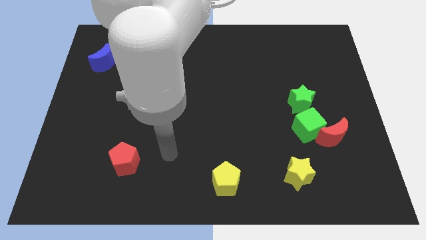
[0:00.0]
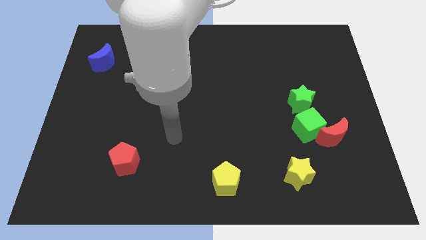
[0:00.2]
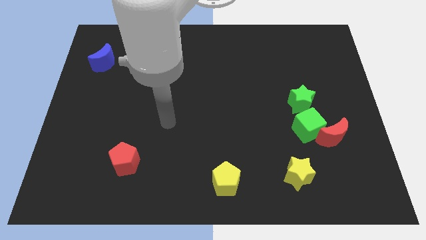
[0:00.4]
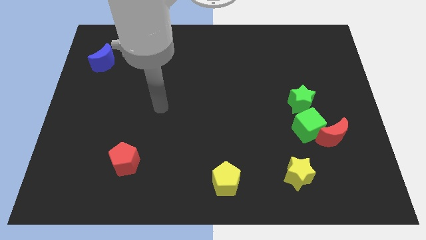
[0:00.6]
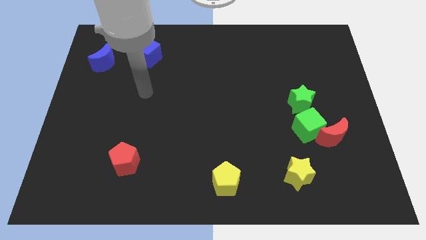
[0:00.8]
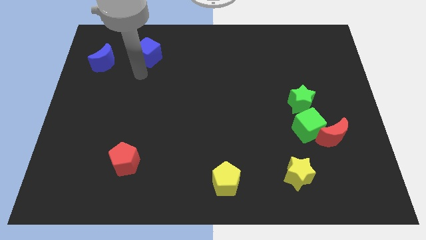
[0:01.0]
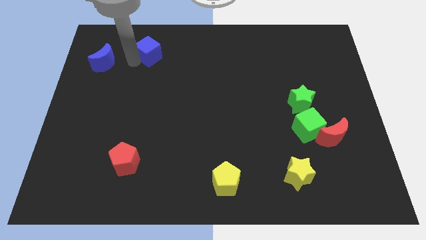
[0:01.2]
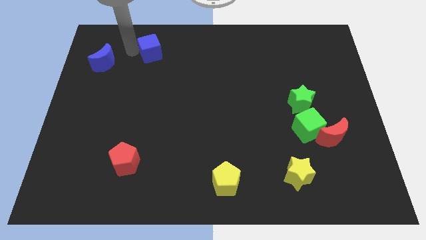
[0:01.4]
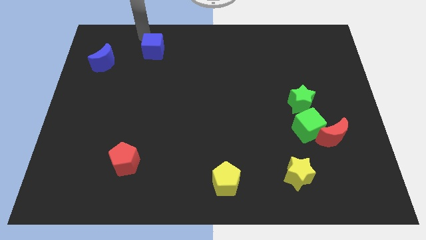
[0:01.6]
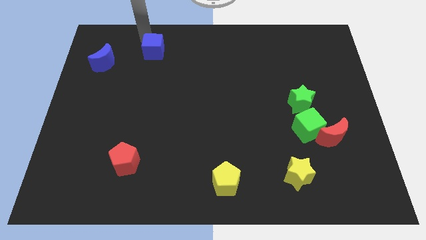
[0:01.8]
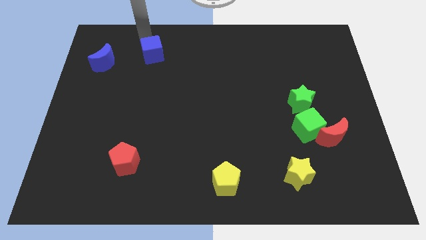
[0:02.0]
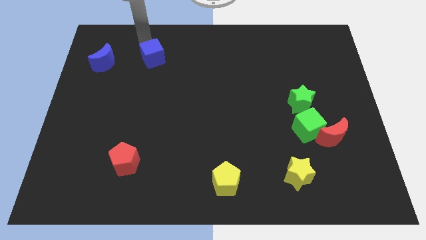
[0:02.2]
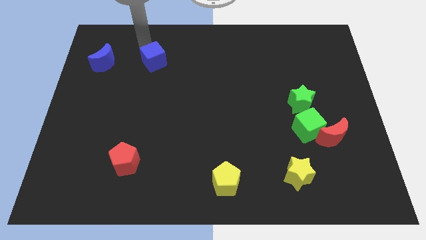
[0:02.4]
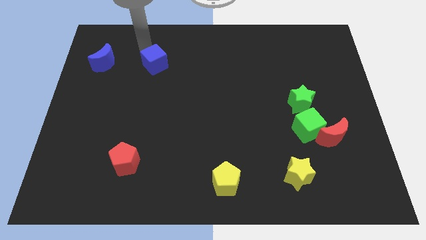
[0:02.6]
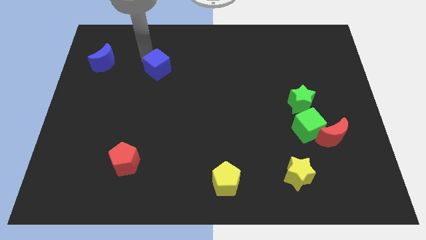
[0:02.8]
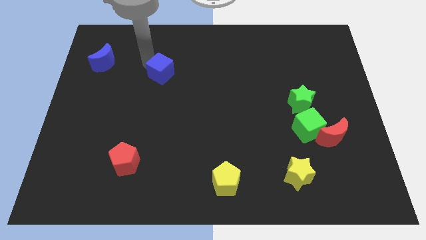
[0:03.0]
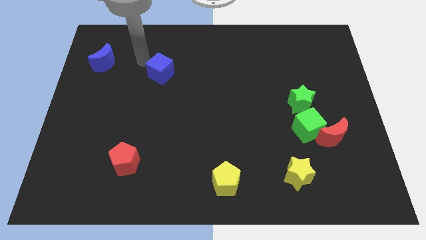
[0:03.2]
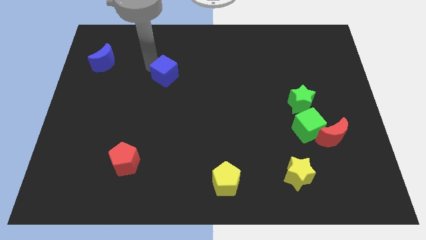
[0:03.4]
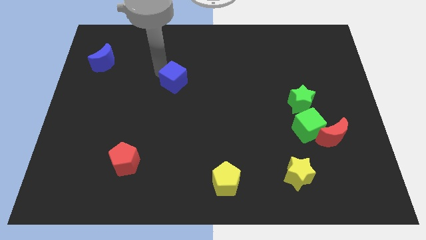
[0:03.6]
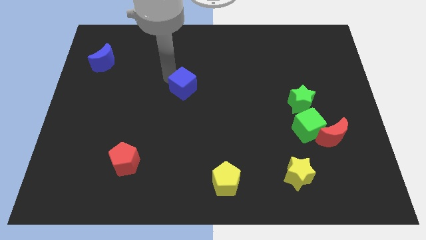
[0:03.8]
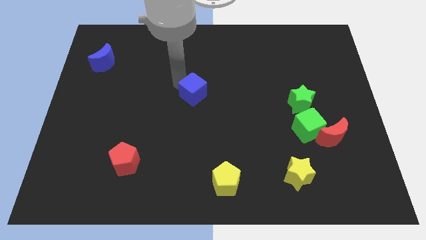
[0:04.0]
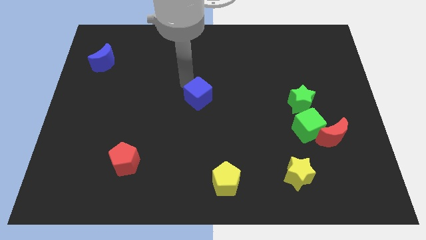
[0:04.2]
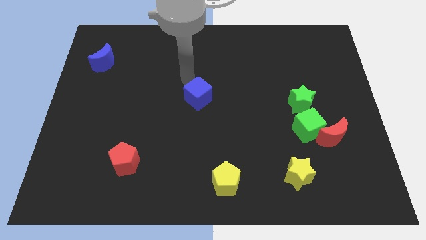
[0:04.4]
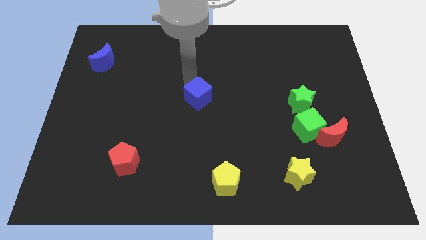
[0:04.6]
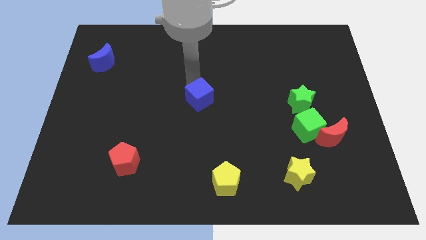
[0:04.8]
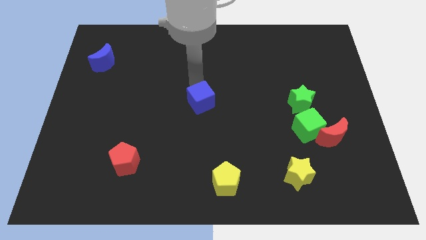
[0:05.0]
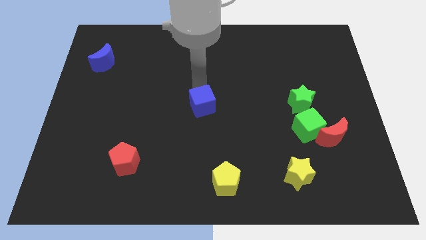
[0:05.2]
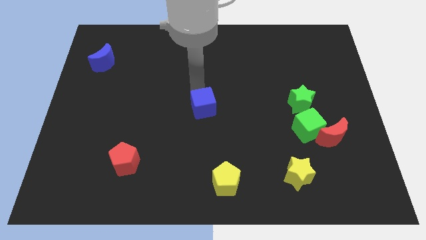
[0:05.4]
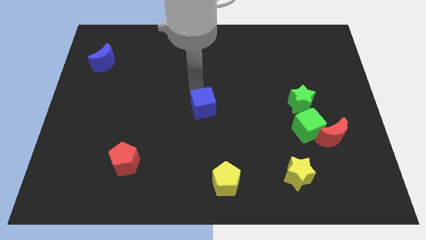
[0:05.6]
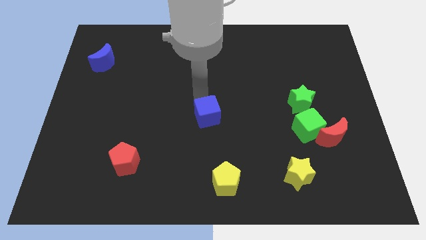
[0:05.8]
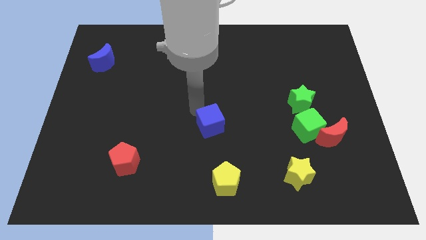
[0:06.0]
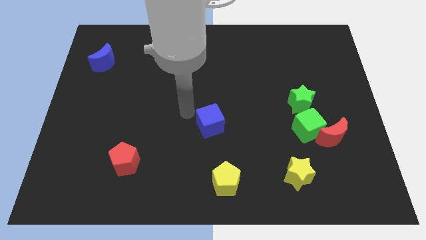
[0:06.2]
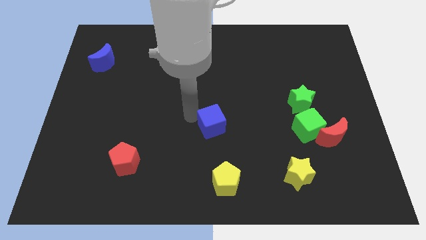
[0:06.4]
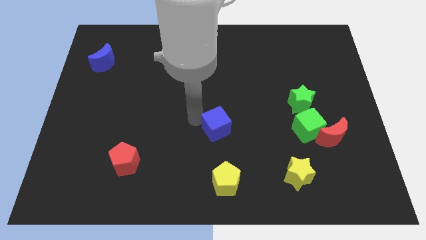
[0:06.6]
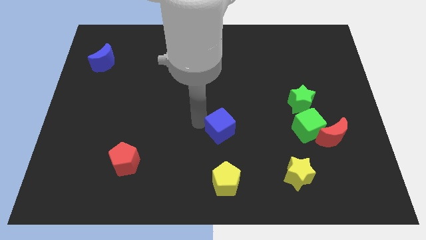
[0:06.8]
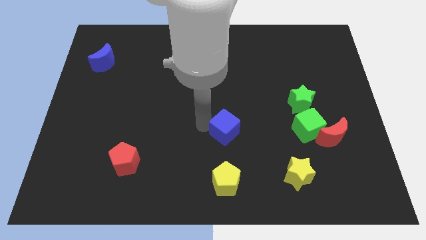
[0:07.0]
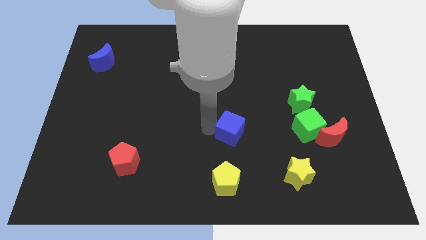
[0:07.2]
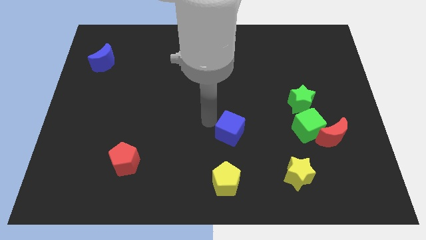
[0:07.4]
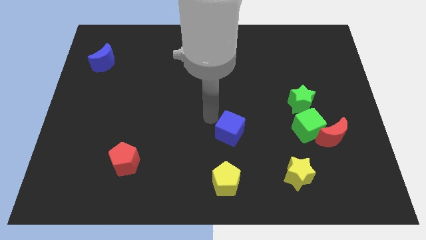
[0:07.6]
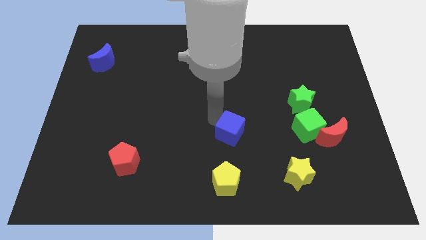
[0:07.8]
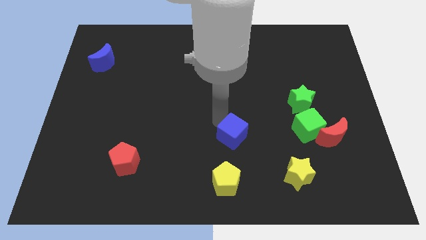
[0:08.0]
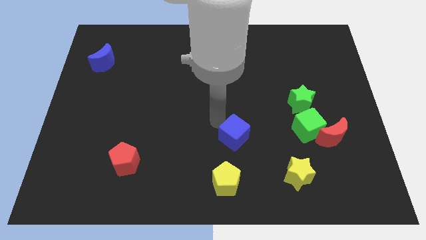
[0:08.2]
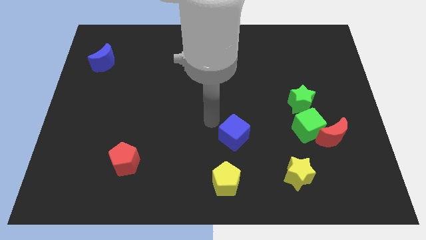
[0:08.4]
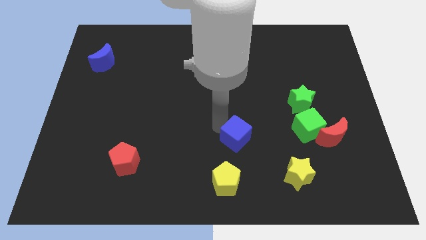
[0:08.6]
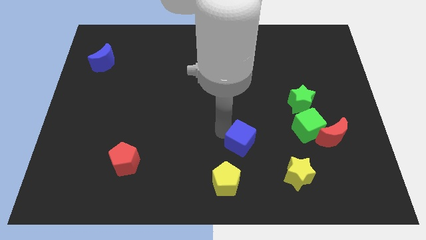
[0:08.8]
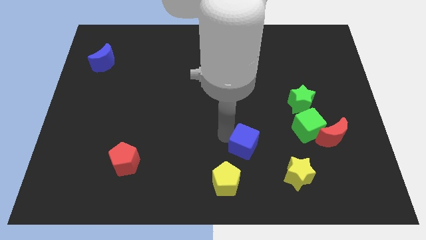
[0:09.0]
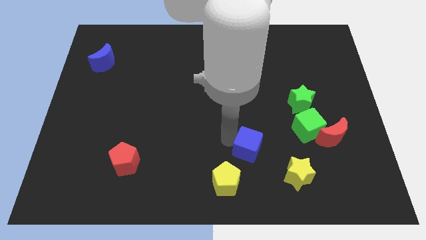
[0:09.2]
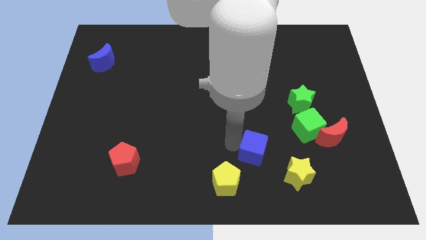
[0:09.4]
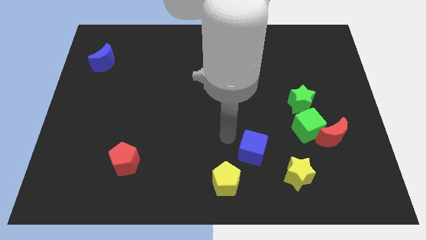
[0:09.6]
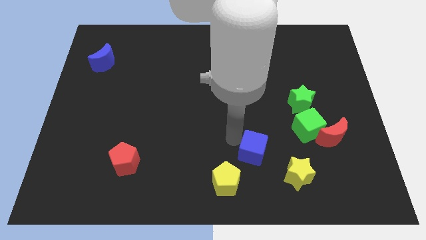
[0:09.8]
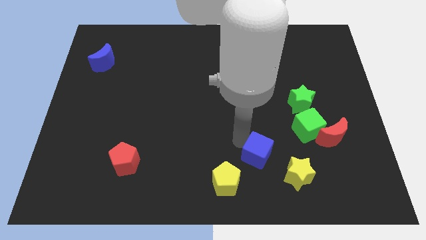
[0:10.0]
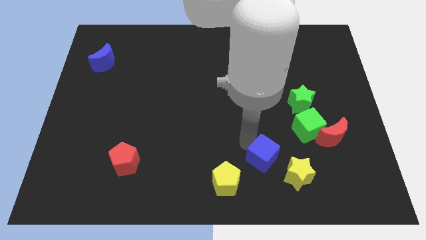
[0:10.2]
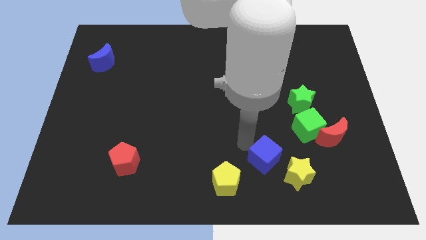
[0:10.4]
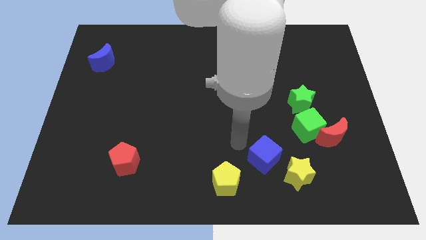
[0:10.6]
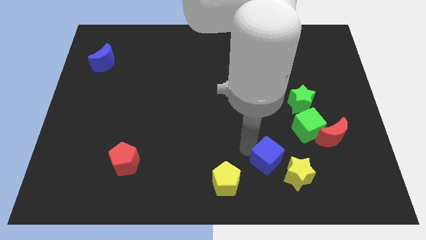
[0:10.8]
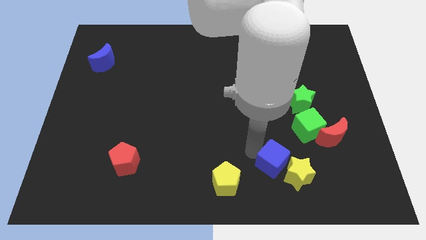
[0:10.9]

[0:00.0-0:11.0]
put the blue cube close to the yellow star

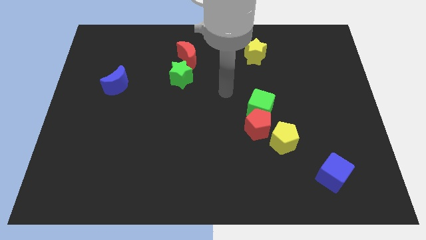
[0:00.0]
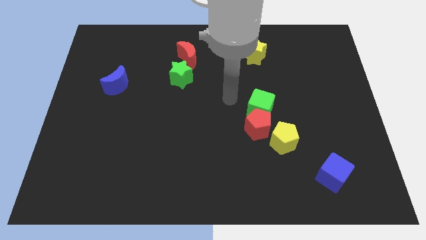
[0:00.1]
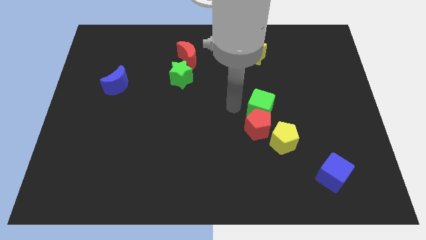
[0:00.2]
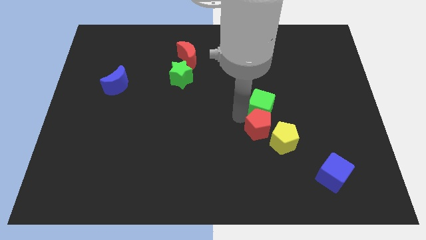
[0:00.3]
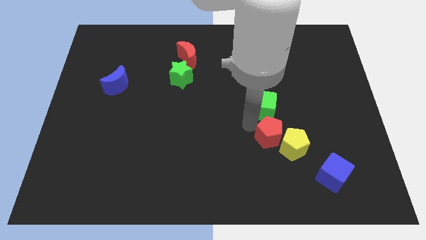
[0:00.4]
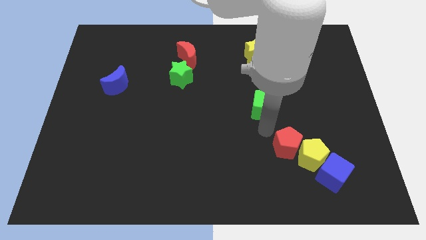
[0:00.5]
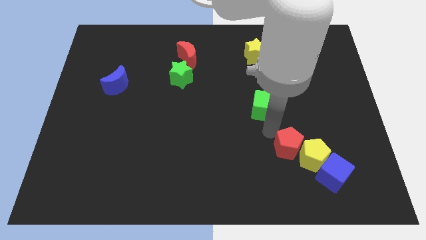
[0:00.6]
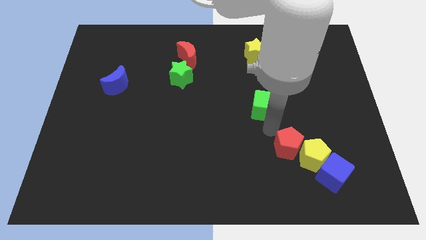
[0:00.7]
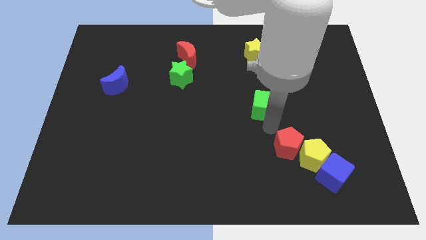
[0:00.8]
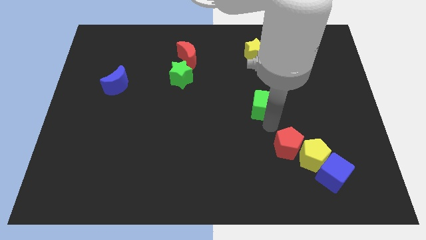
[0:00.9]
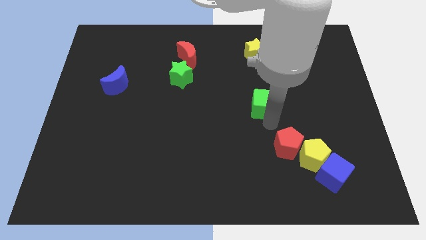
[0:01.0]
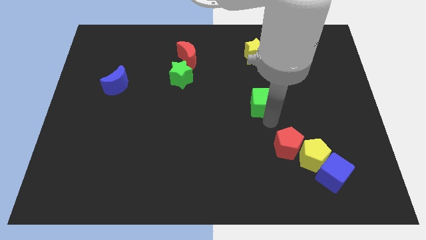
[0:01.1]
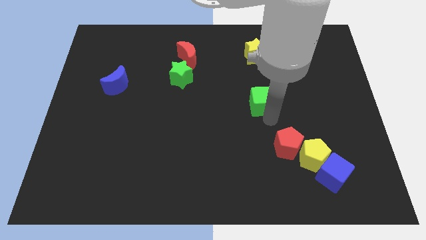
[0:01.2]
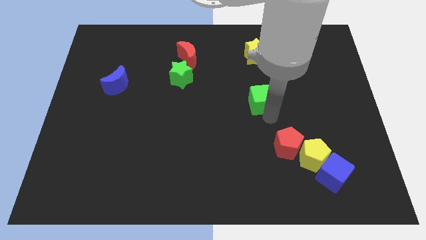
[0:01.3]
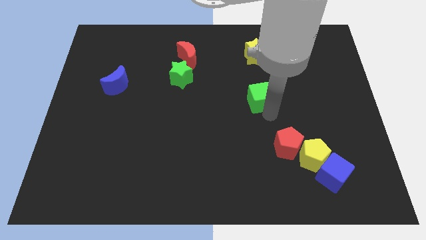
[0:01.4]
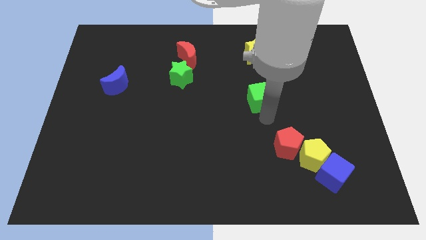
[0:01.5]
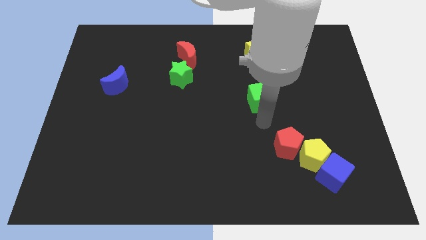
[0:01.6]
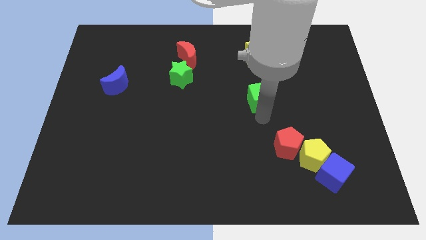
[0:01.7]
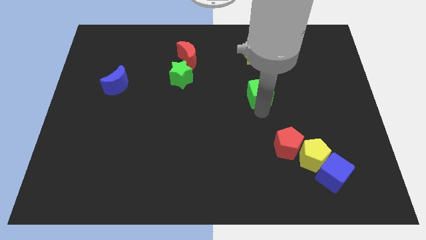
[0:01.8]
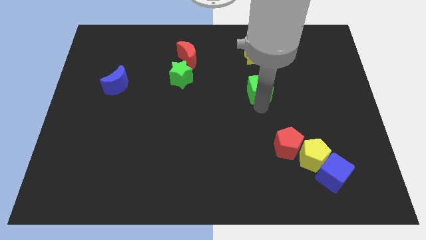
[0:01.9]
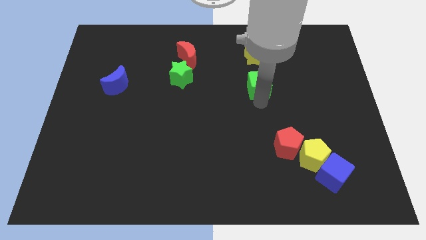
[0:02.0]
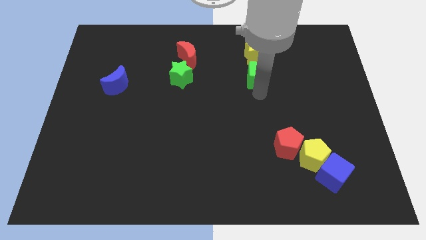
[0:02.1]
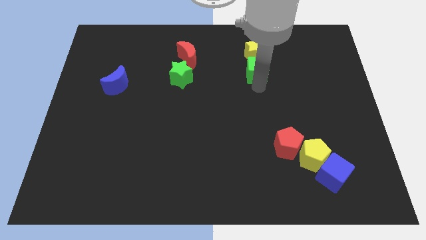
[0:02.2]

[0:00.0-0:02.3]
move the green cube towards the yellow star
